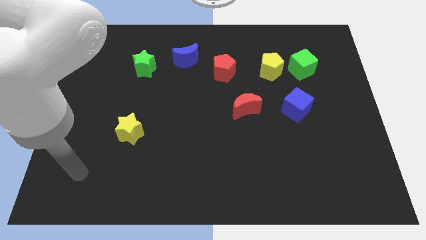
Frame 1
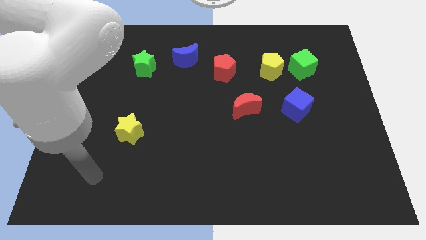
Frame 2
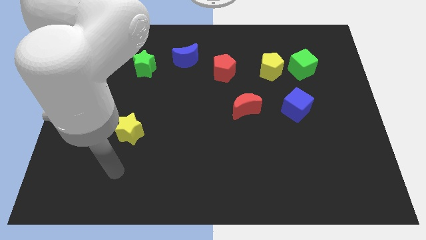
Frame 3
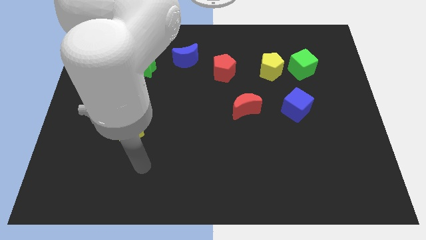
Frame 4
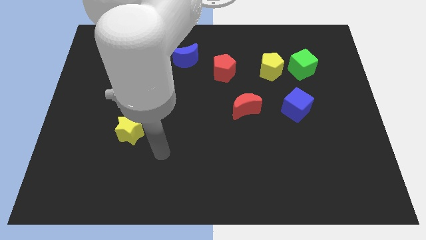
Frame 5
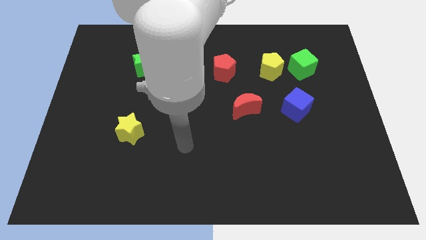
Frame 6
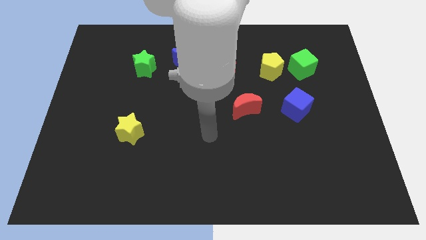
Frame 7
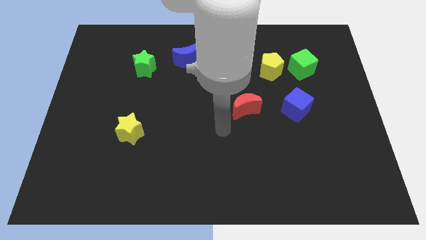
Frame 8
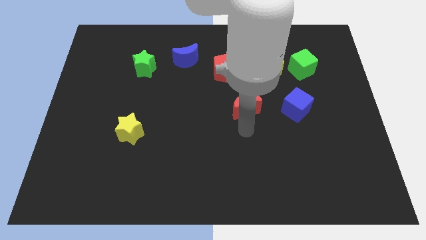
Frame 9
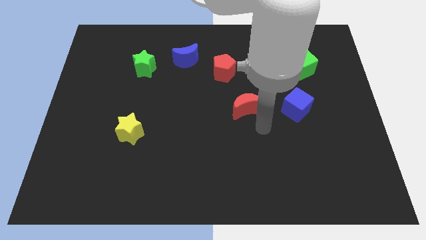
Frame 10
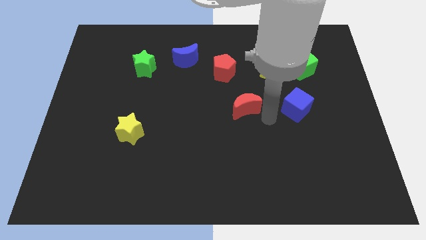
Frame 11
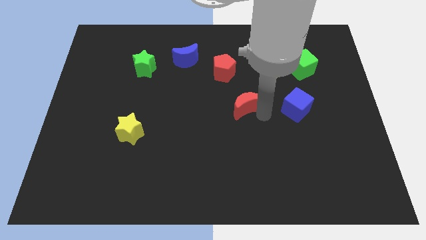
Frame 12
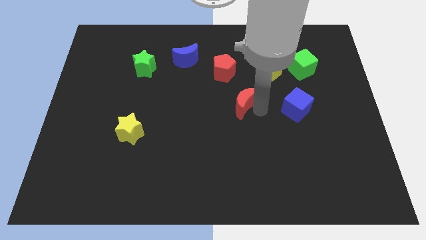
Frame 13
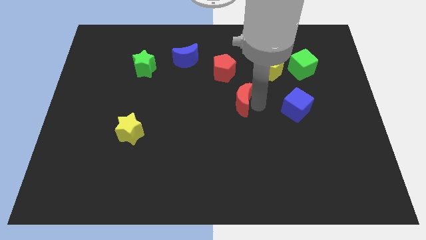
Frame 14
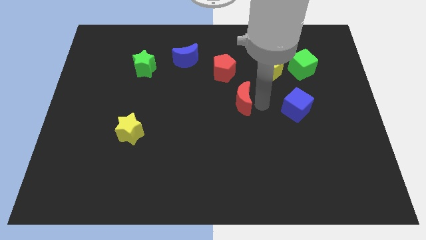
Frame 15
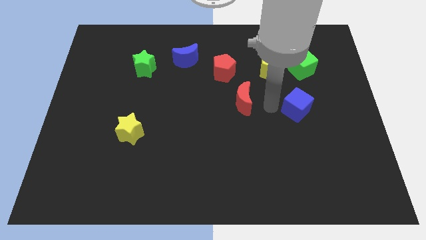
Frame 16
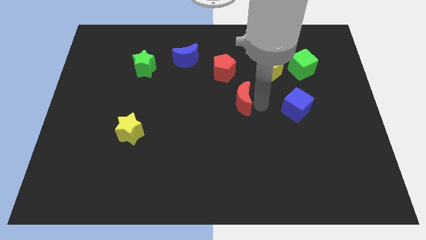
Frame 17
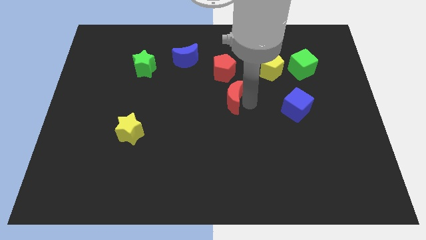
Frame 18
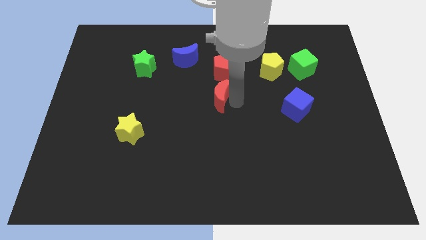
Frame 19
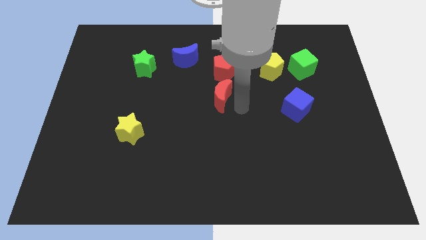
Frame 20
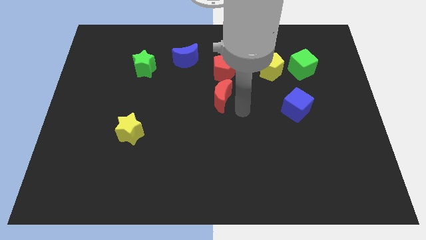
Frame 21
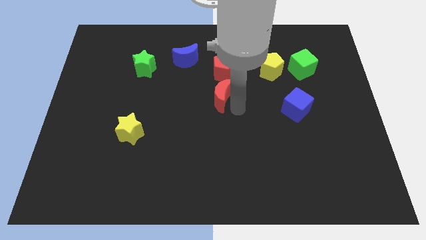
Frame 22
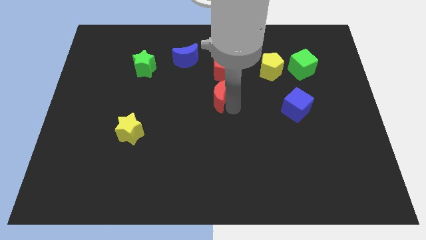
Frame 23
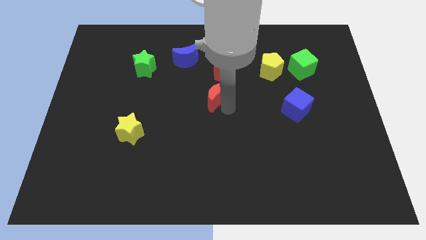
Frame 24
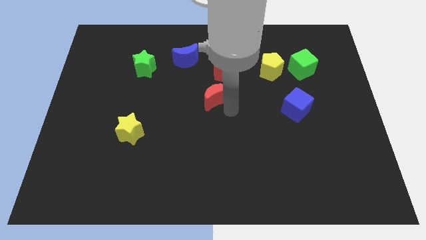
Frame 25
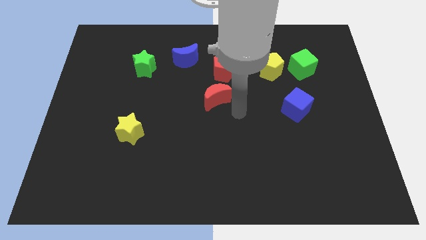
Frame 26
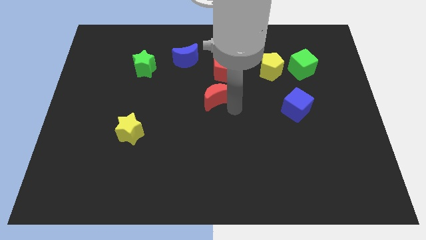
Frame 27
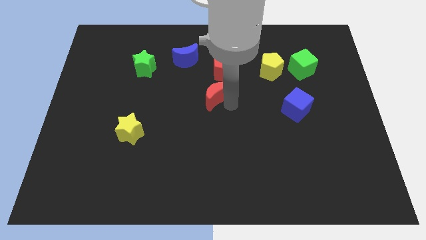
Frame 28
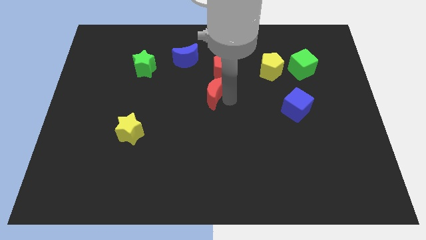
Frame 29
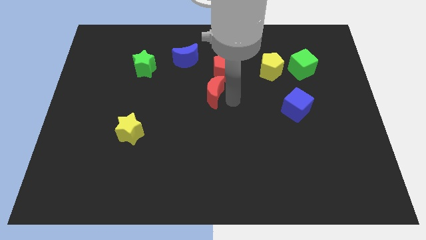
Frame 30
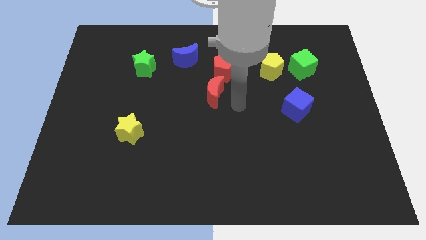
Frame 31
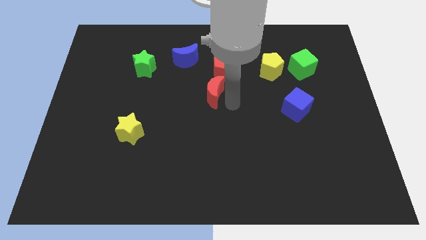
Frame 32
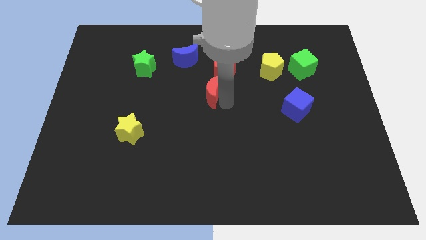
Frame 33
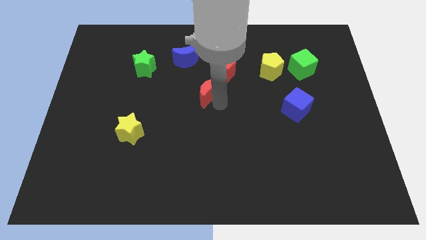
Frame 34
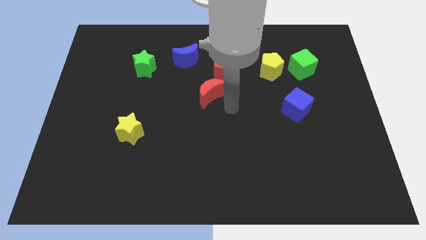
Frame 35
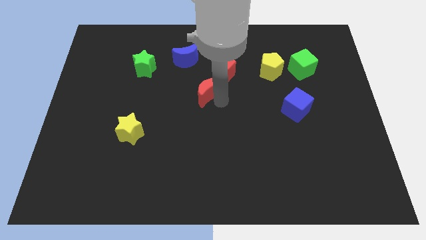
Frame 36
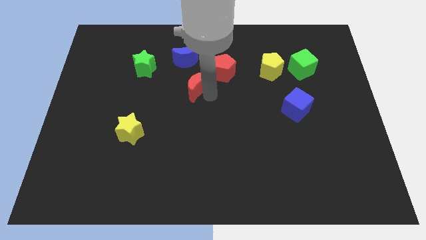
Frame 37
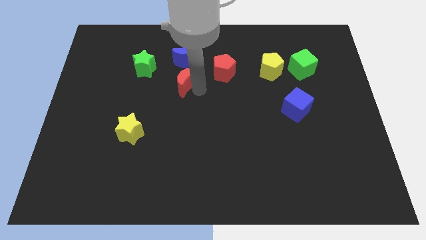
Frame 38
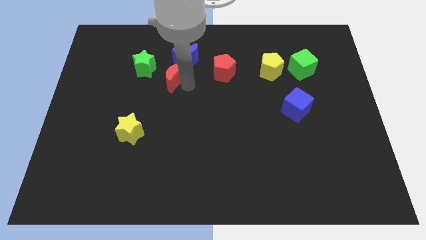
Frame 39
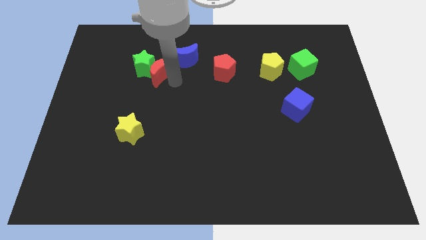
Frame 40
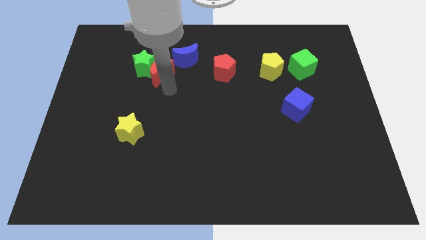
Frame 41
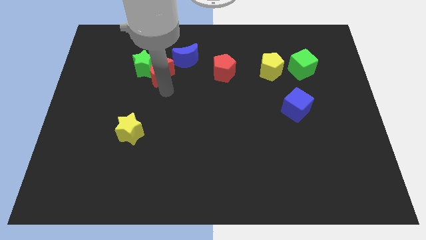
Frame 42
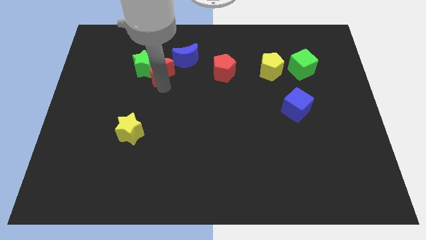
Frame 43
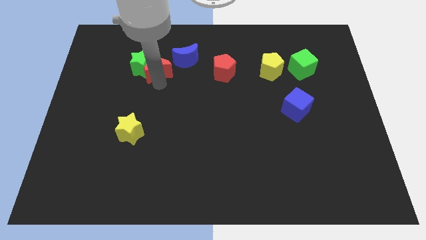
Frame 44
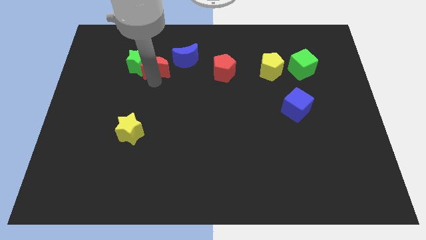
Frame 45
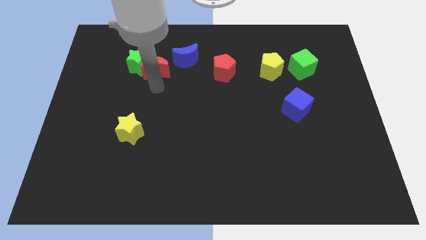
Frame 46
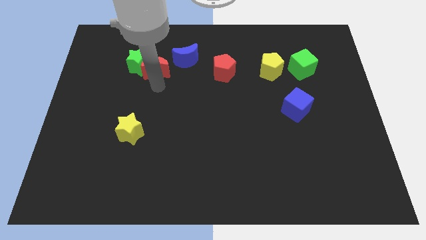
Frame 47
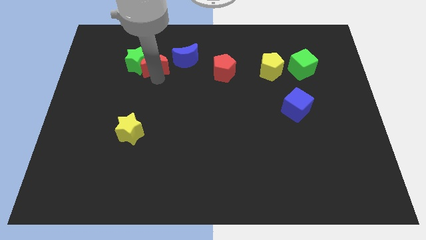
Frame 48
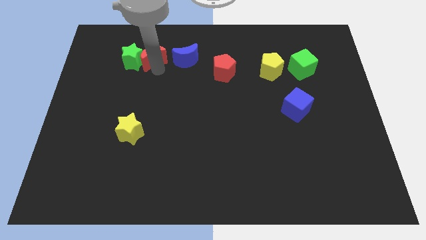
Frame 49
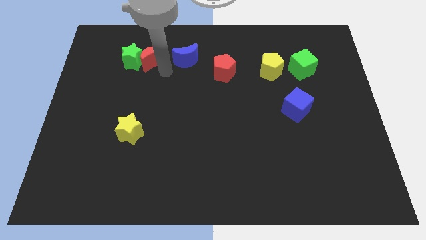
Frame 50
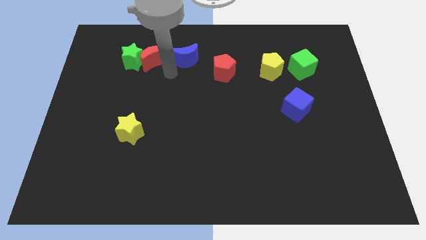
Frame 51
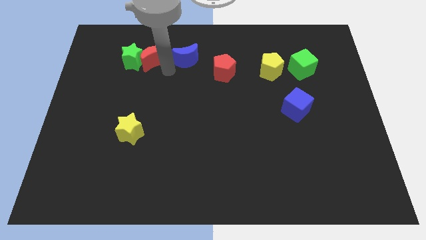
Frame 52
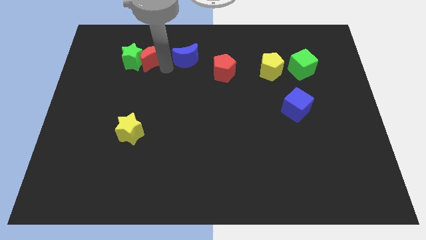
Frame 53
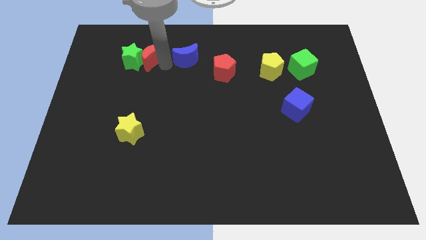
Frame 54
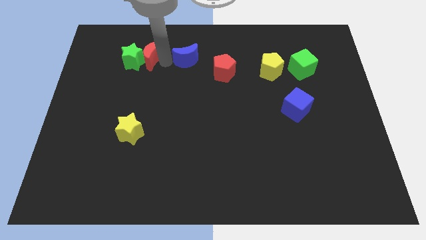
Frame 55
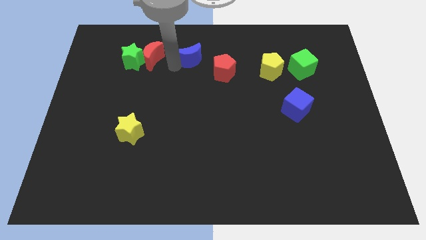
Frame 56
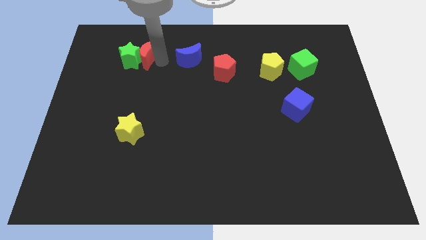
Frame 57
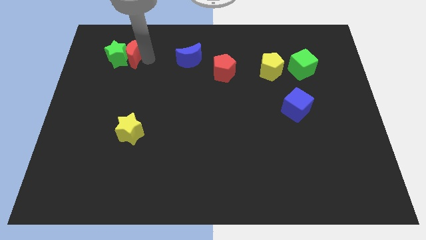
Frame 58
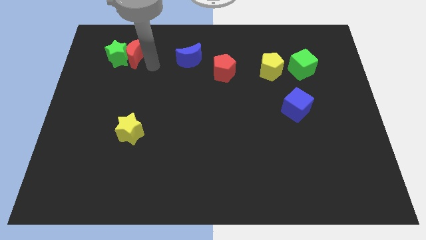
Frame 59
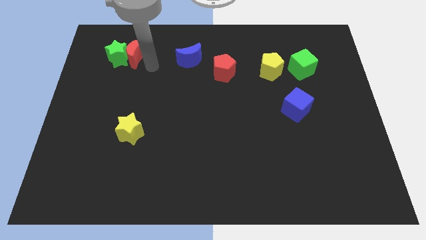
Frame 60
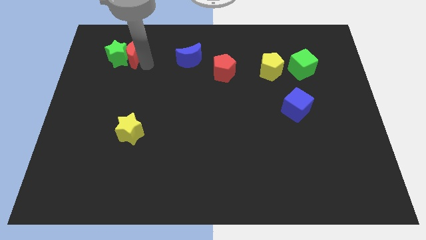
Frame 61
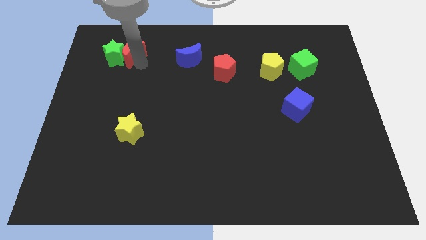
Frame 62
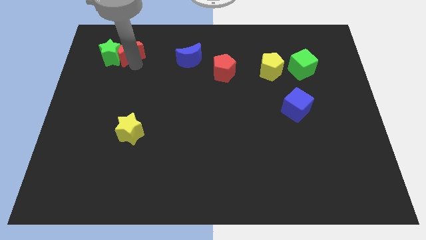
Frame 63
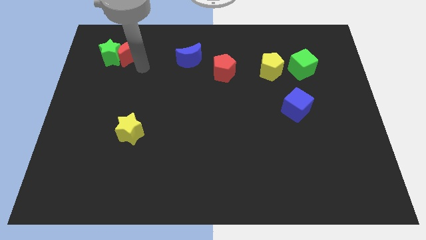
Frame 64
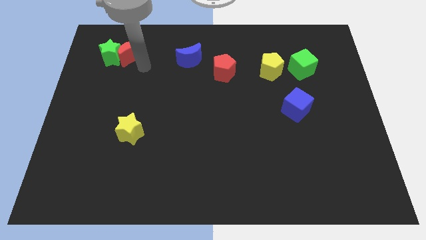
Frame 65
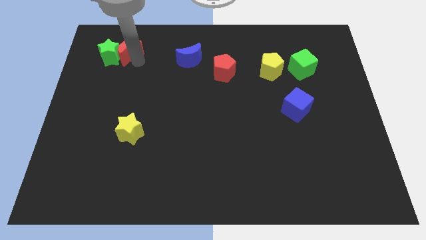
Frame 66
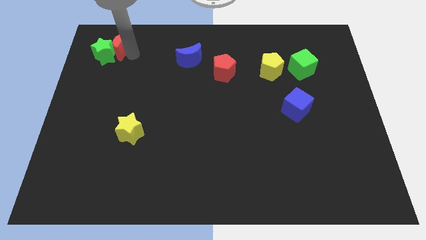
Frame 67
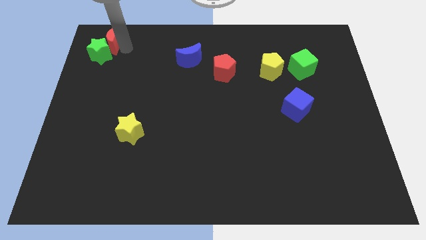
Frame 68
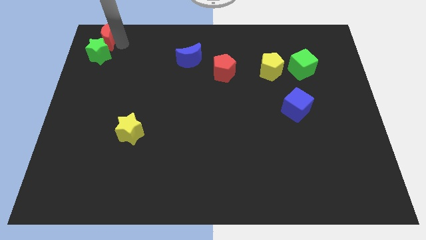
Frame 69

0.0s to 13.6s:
move the red moon to the top left

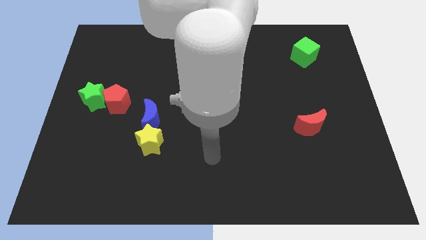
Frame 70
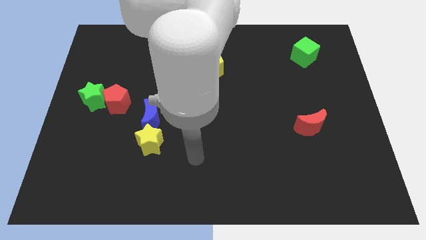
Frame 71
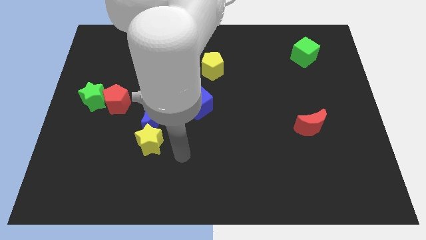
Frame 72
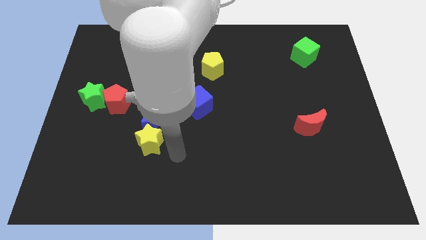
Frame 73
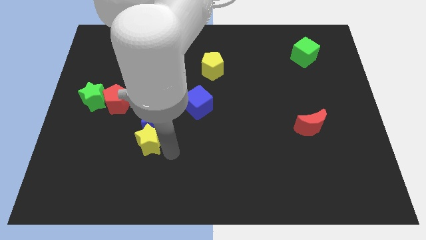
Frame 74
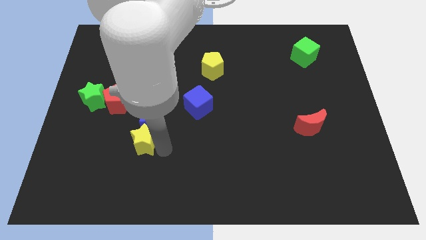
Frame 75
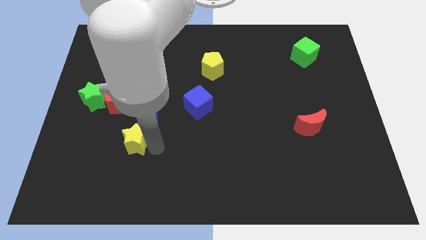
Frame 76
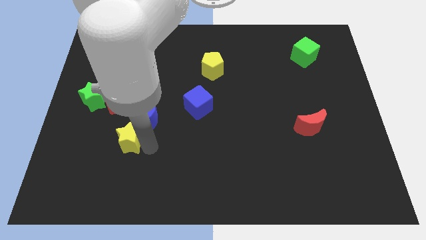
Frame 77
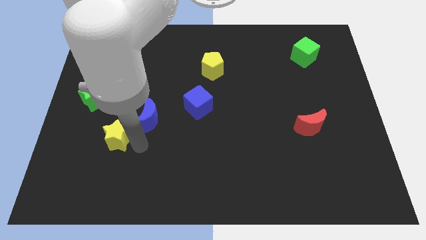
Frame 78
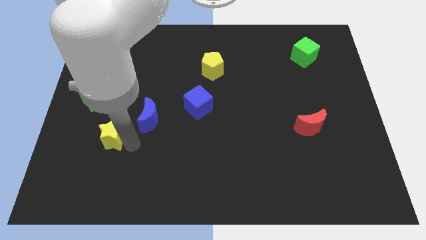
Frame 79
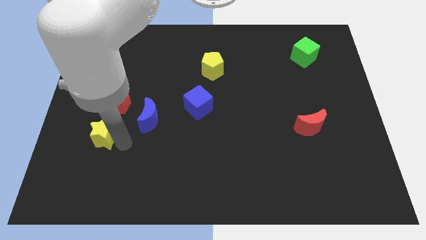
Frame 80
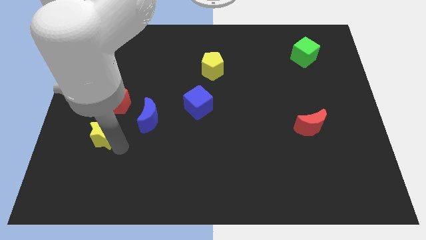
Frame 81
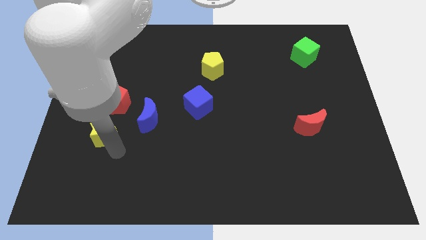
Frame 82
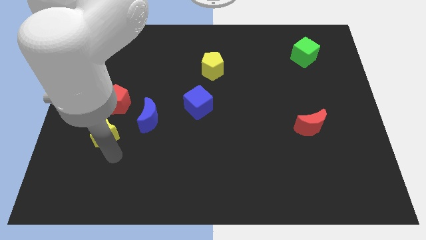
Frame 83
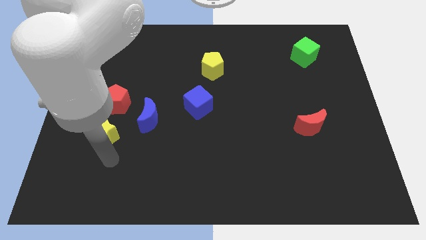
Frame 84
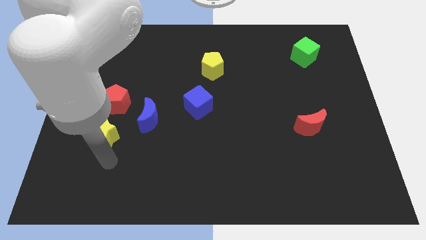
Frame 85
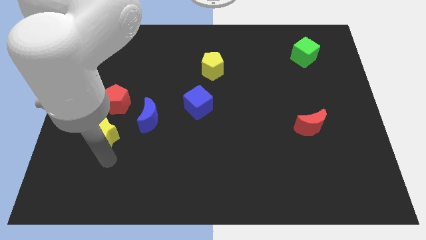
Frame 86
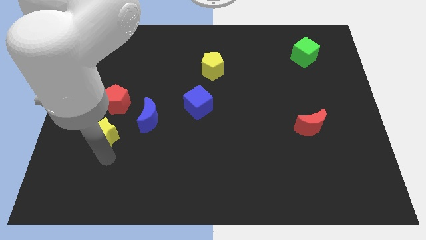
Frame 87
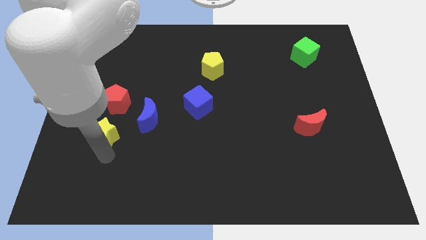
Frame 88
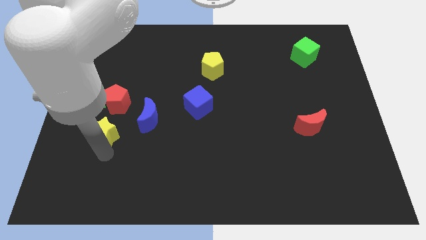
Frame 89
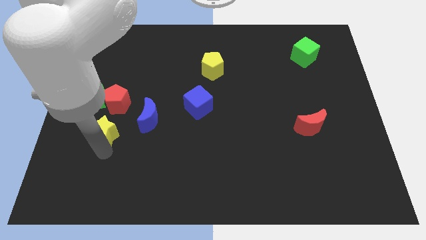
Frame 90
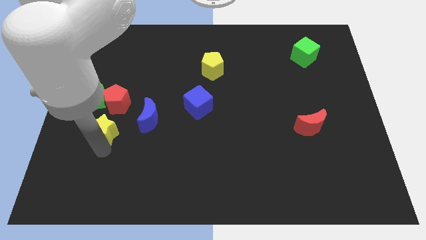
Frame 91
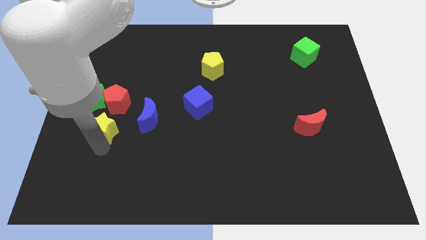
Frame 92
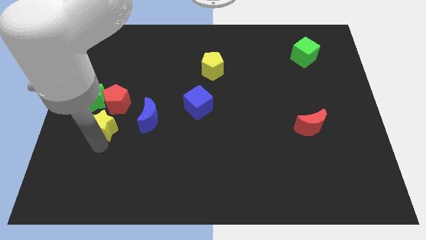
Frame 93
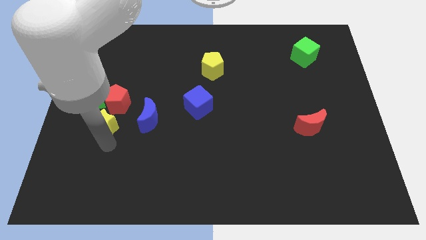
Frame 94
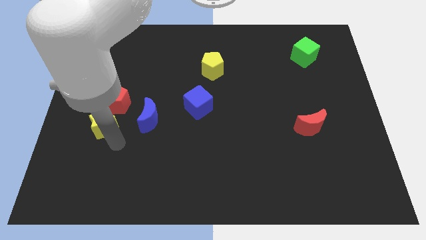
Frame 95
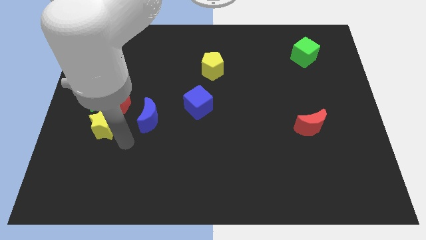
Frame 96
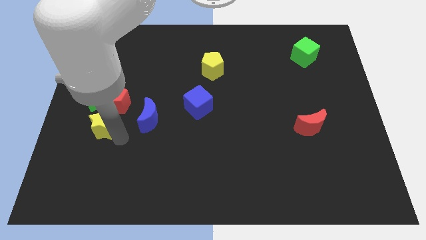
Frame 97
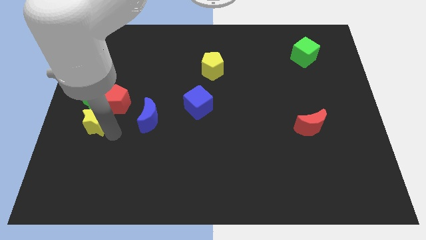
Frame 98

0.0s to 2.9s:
put the yellow star to the center left
